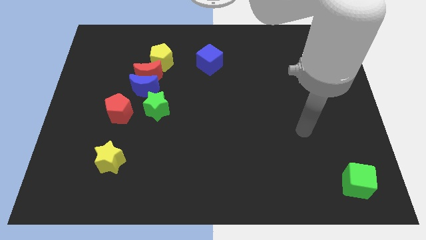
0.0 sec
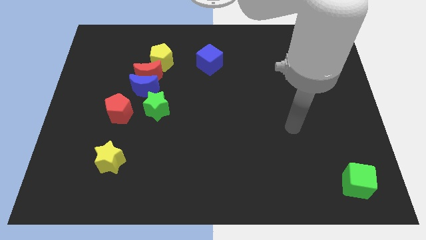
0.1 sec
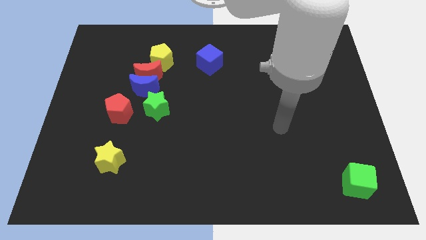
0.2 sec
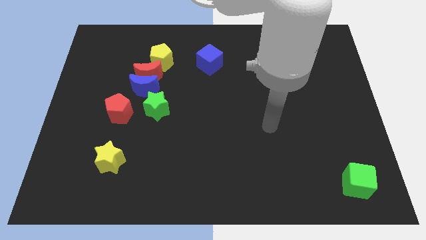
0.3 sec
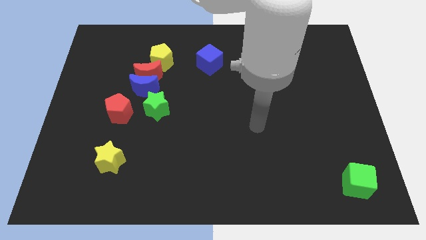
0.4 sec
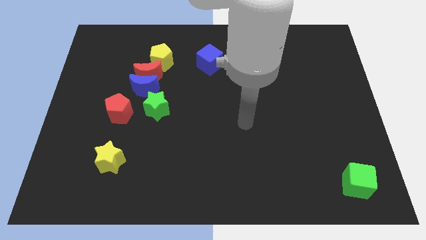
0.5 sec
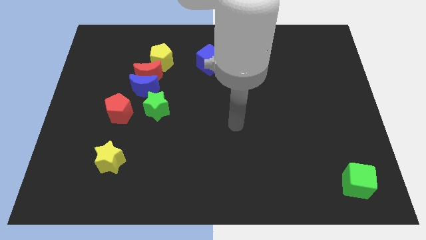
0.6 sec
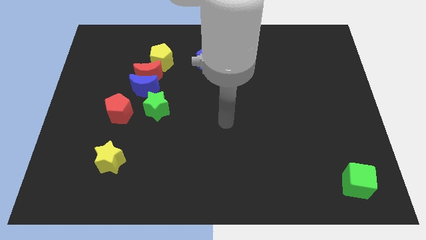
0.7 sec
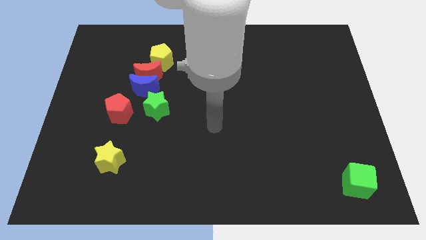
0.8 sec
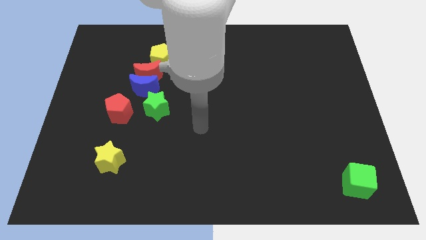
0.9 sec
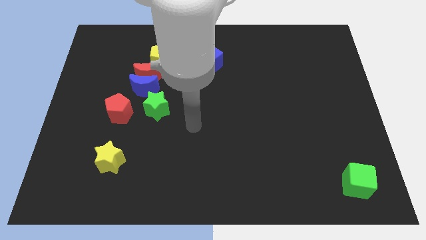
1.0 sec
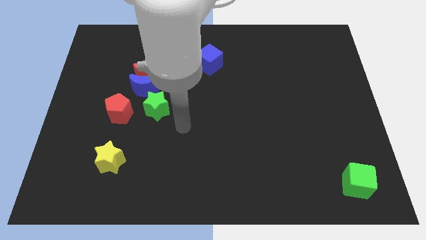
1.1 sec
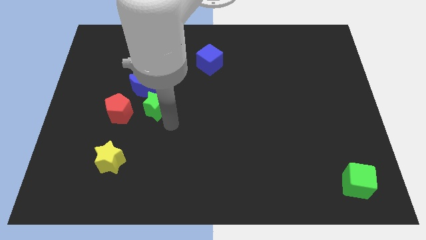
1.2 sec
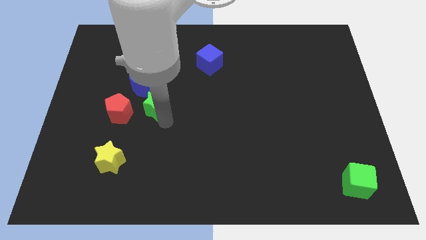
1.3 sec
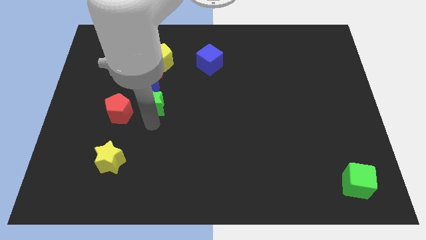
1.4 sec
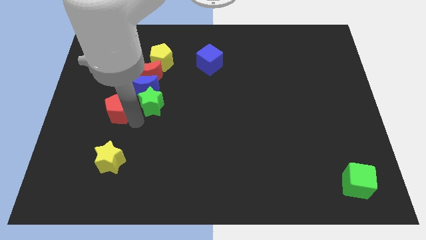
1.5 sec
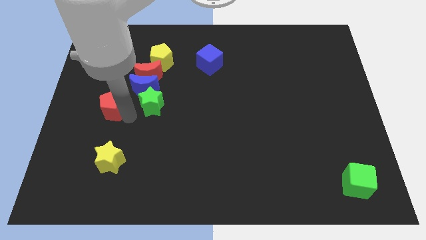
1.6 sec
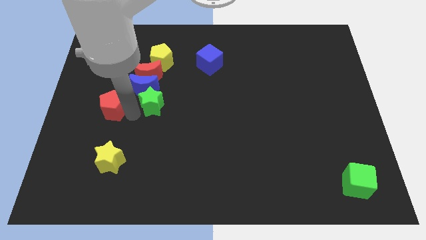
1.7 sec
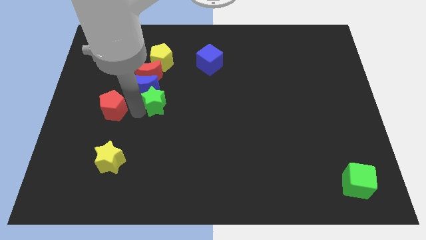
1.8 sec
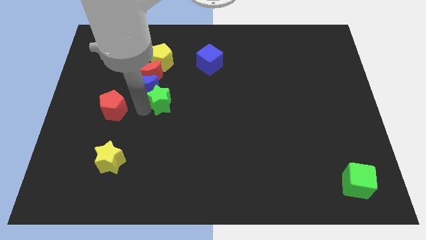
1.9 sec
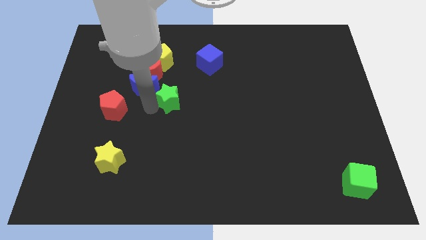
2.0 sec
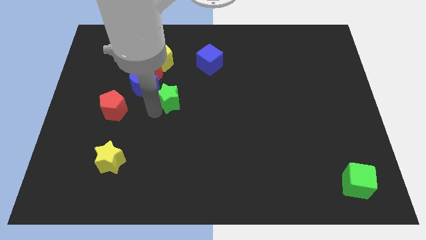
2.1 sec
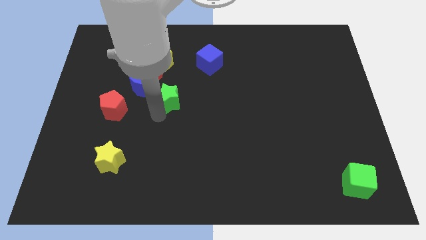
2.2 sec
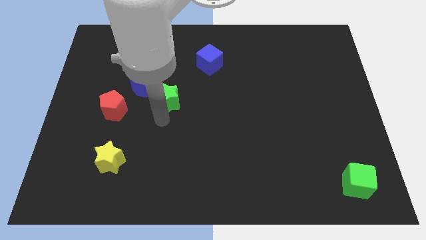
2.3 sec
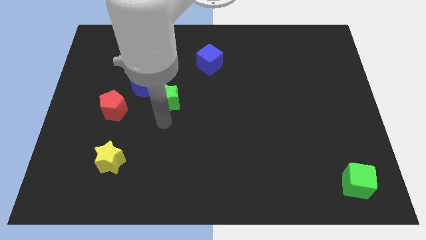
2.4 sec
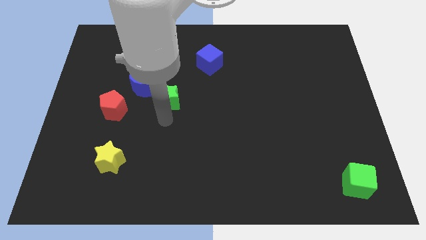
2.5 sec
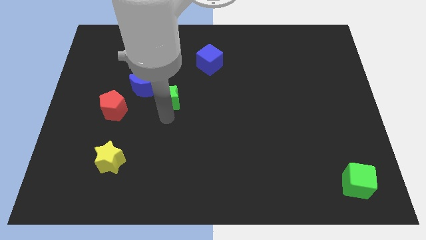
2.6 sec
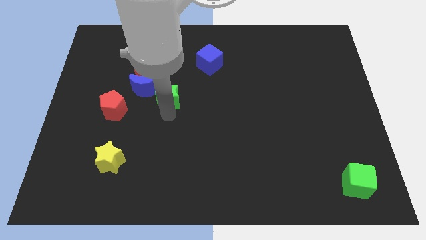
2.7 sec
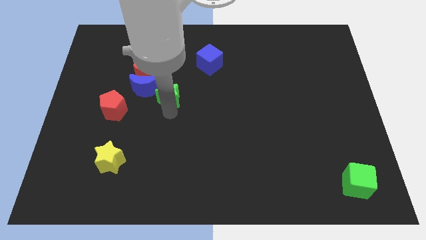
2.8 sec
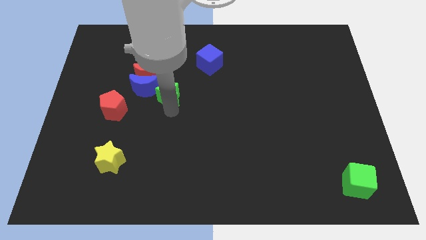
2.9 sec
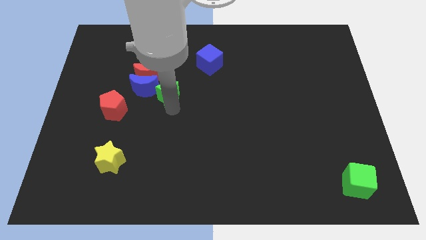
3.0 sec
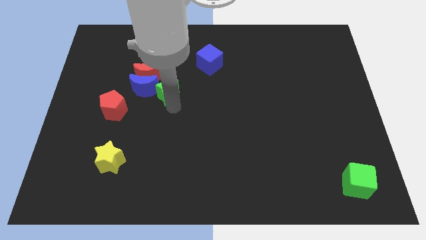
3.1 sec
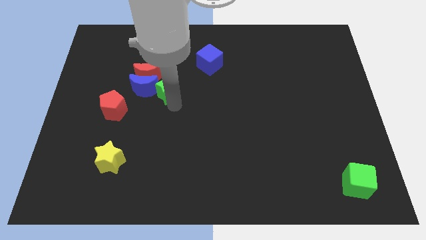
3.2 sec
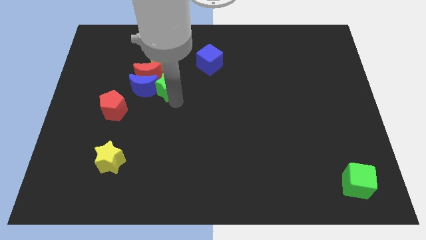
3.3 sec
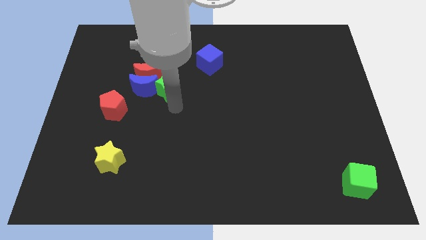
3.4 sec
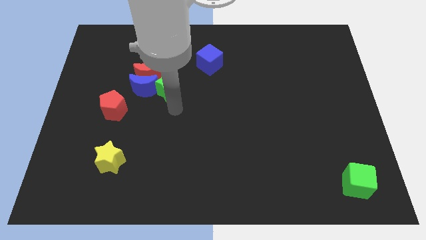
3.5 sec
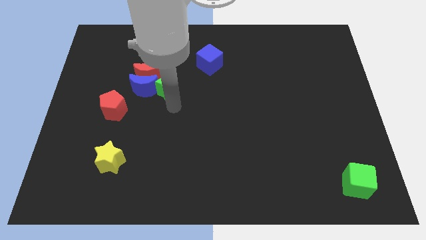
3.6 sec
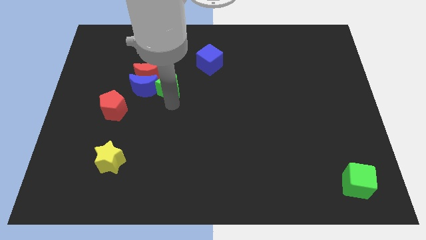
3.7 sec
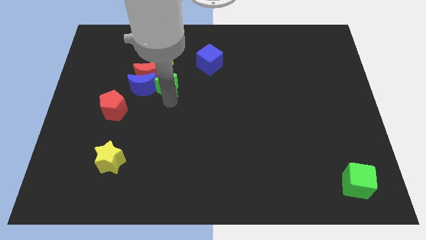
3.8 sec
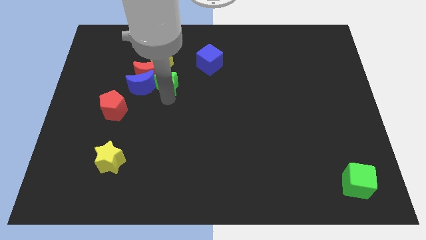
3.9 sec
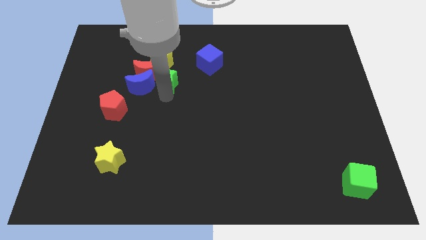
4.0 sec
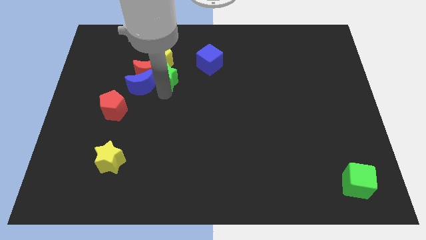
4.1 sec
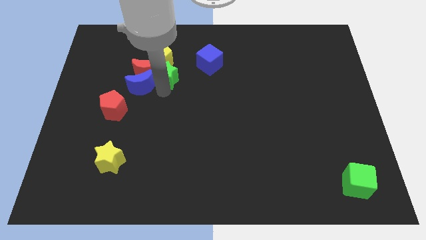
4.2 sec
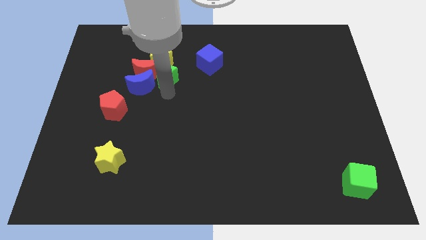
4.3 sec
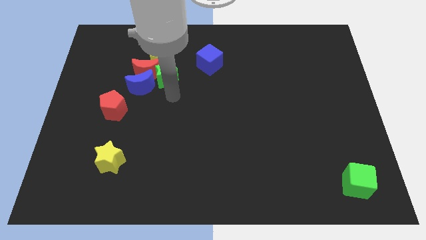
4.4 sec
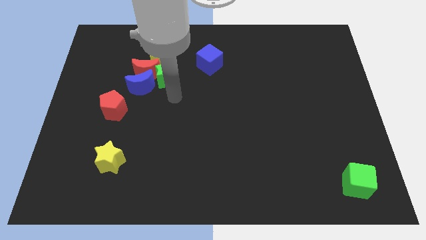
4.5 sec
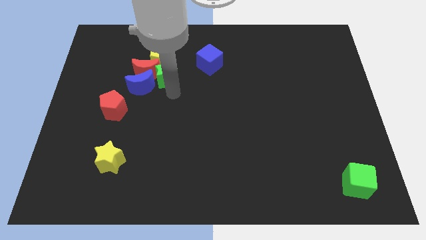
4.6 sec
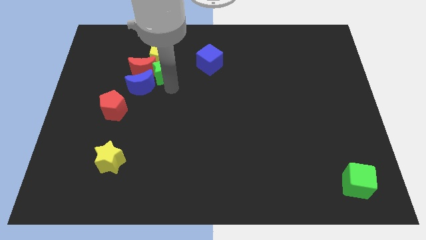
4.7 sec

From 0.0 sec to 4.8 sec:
move the green star to the yellow pentagon

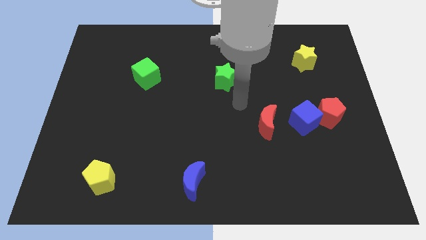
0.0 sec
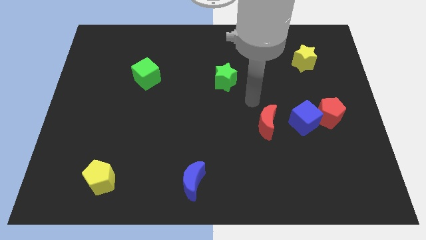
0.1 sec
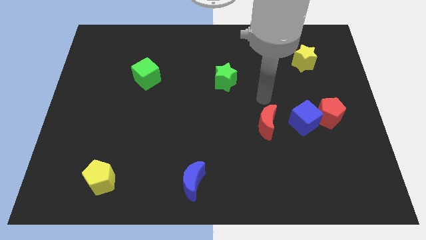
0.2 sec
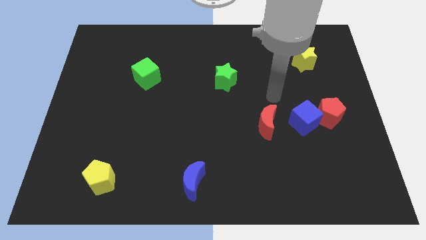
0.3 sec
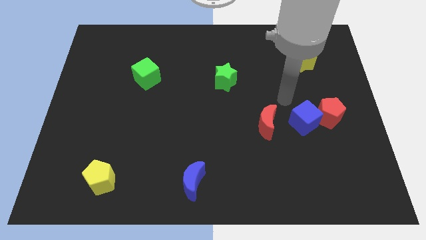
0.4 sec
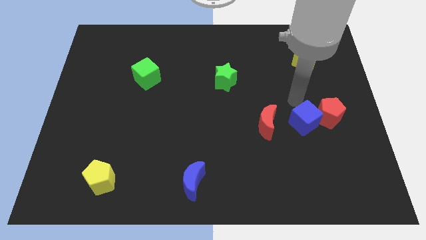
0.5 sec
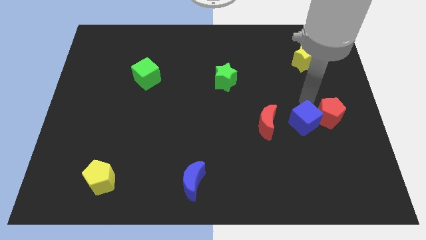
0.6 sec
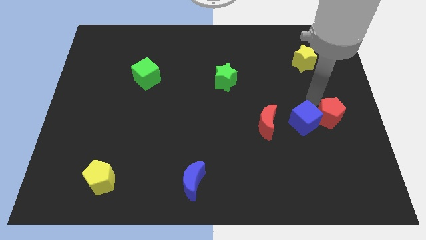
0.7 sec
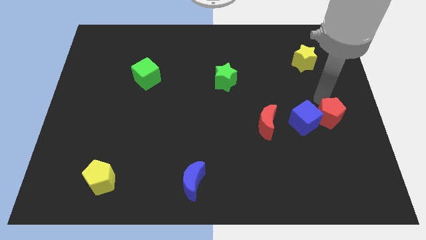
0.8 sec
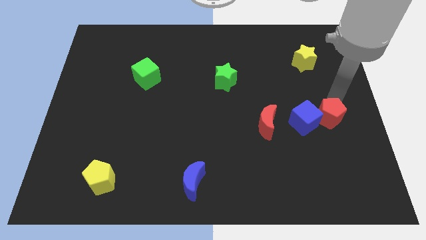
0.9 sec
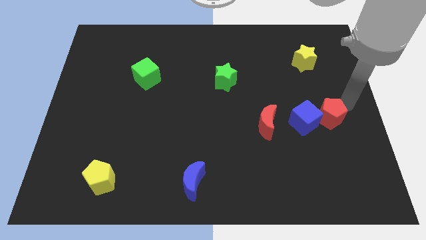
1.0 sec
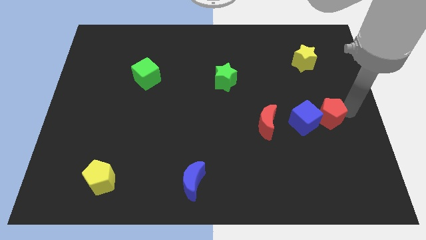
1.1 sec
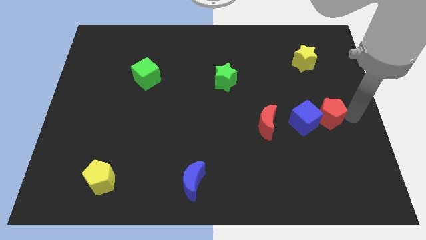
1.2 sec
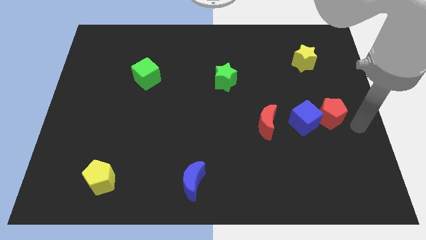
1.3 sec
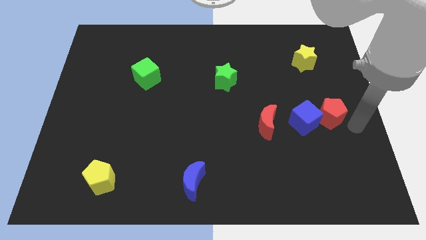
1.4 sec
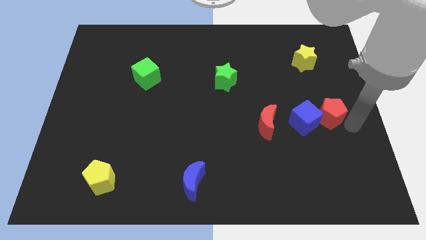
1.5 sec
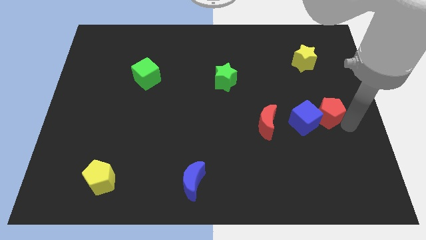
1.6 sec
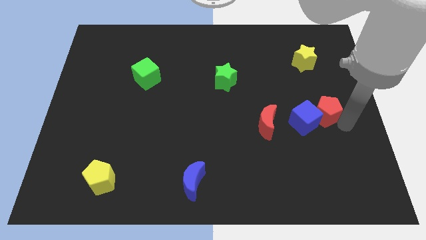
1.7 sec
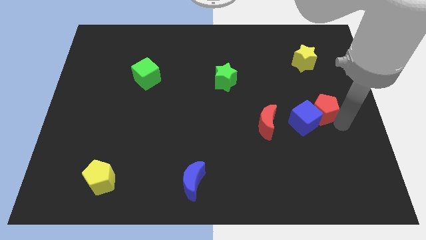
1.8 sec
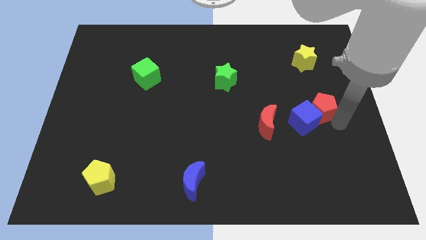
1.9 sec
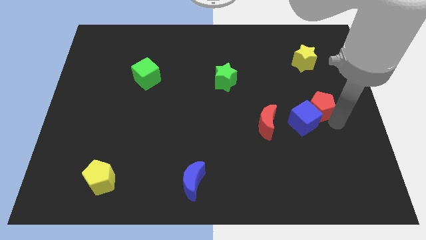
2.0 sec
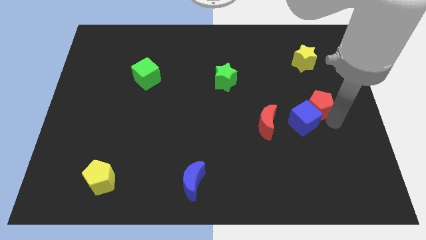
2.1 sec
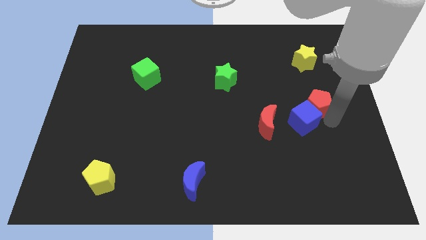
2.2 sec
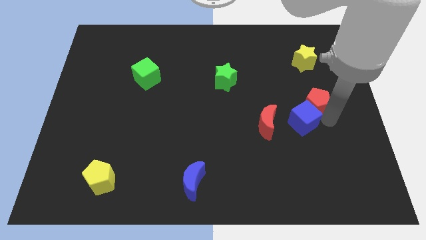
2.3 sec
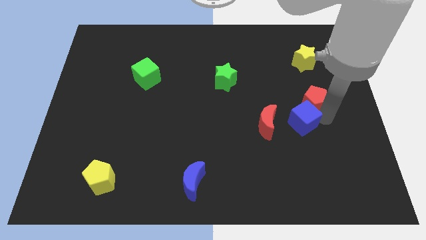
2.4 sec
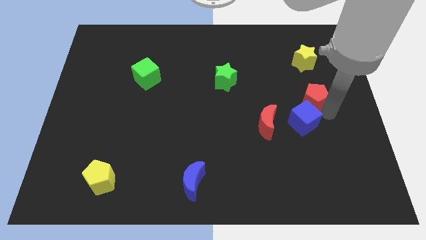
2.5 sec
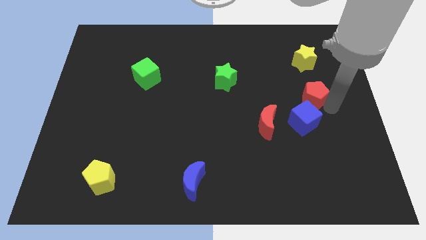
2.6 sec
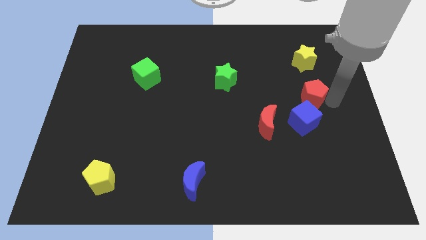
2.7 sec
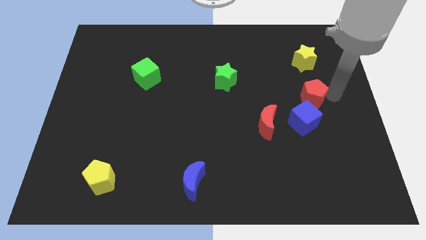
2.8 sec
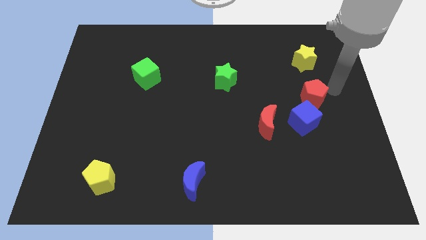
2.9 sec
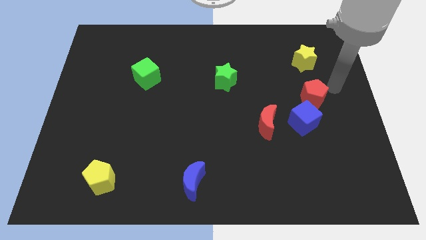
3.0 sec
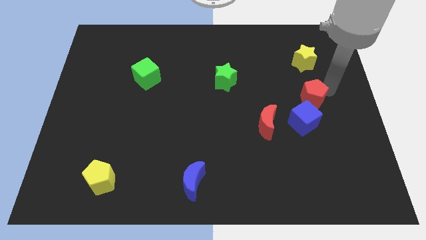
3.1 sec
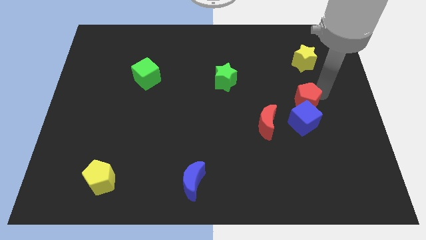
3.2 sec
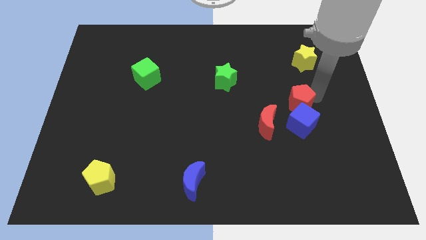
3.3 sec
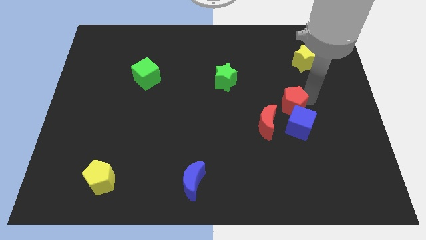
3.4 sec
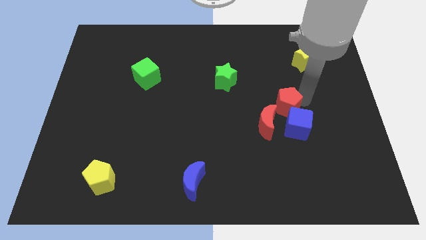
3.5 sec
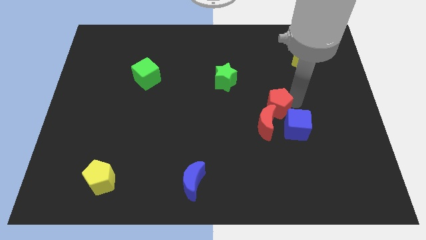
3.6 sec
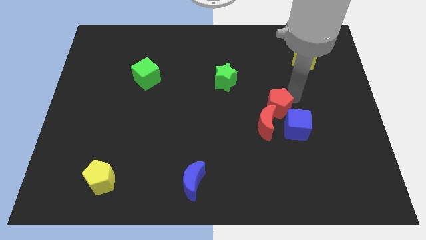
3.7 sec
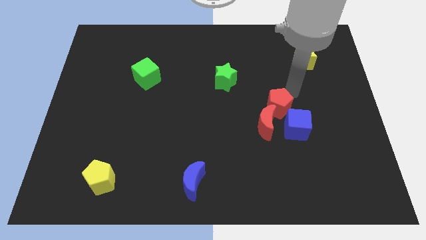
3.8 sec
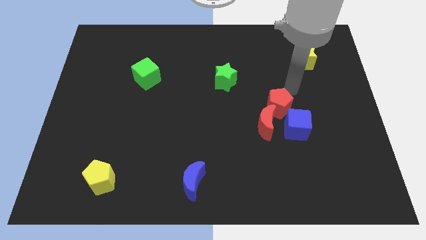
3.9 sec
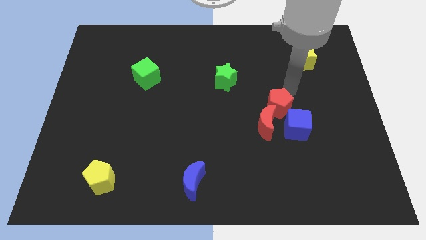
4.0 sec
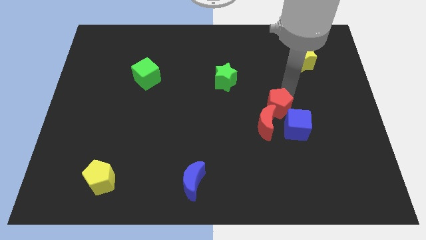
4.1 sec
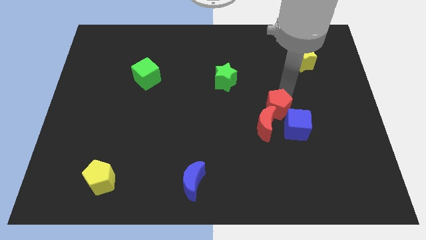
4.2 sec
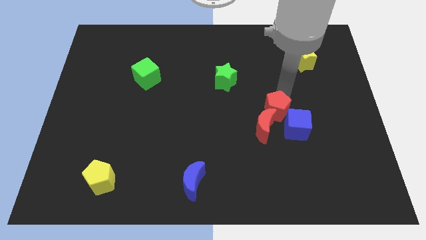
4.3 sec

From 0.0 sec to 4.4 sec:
move the red pentagon next to the red moon
